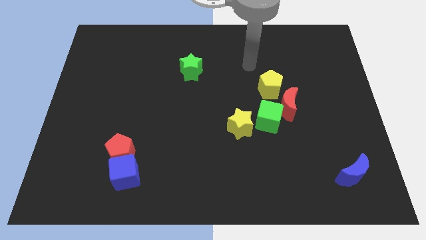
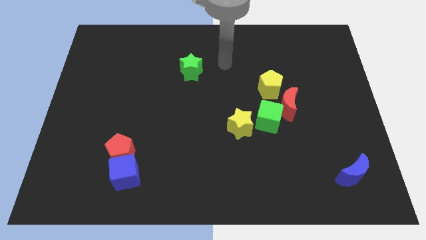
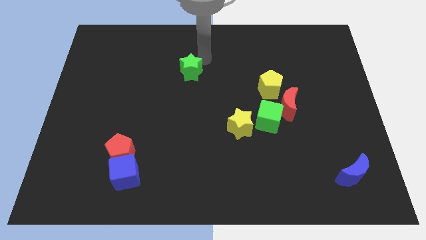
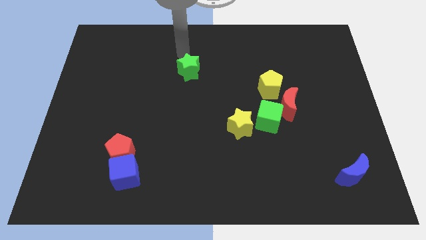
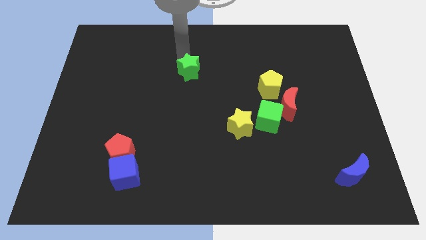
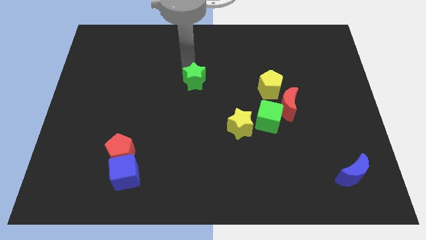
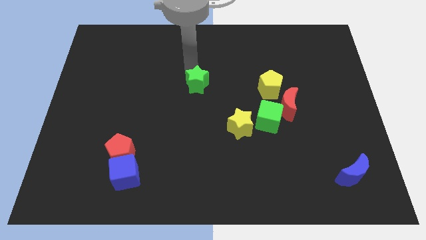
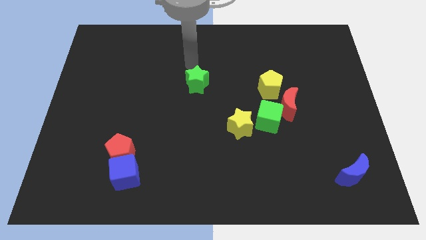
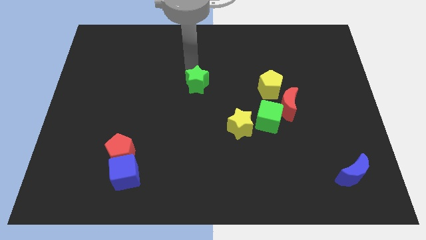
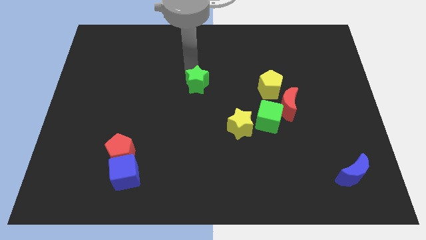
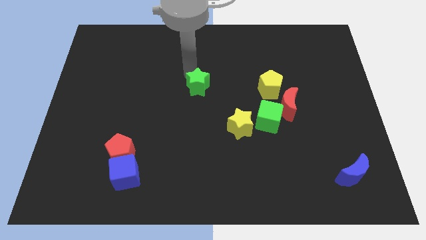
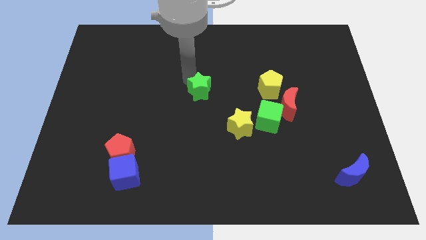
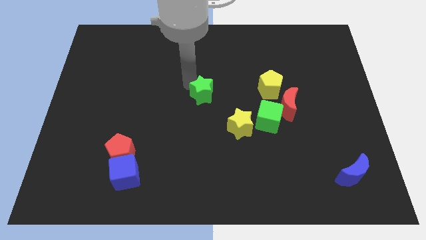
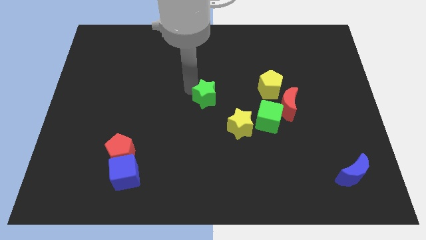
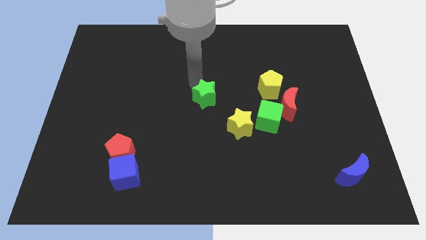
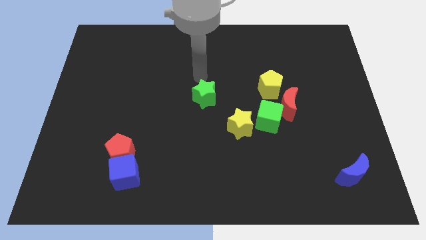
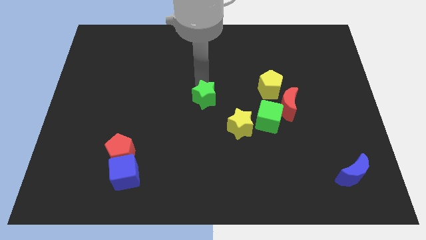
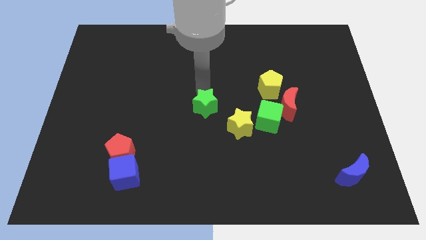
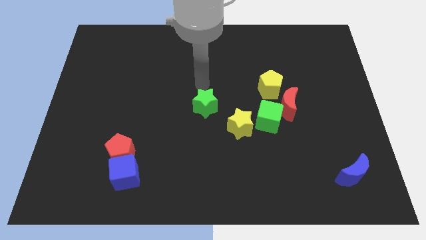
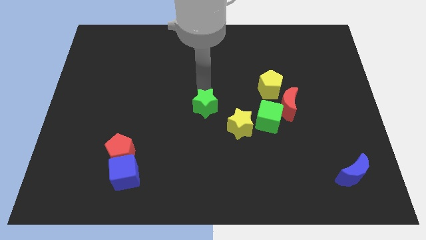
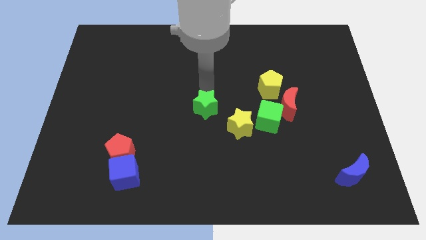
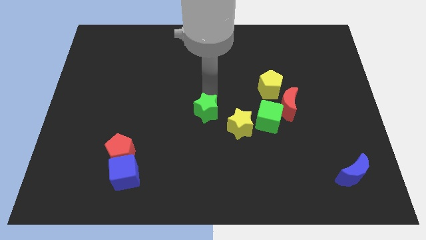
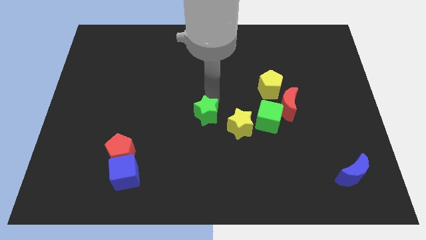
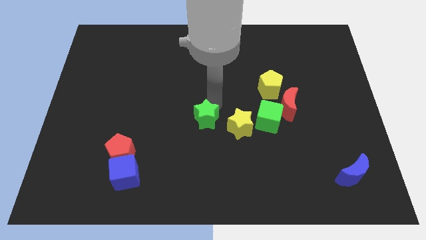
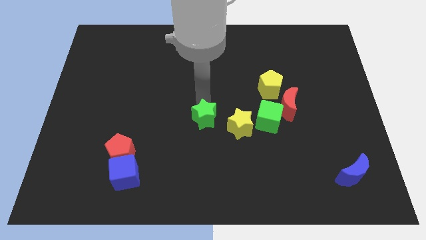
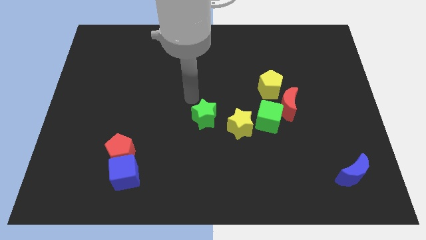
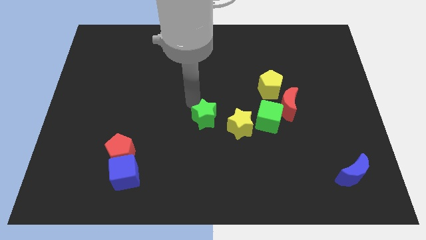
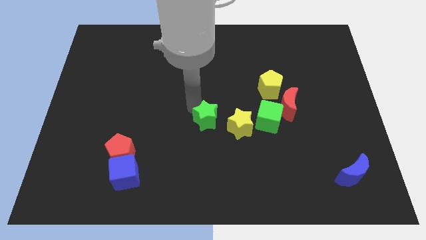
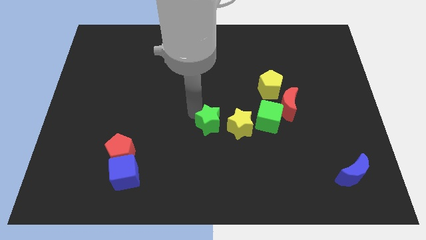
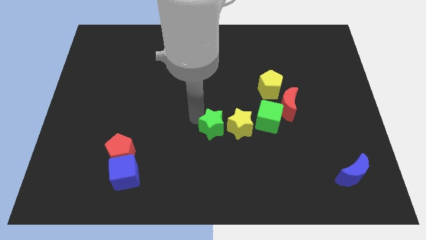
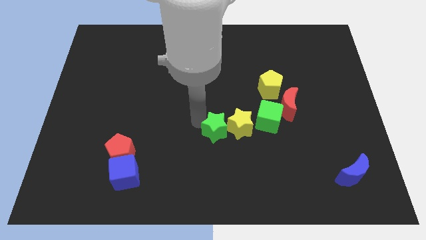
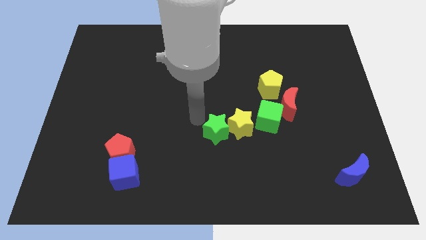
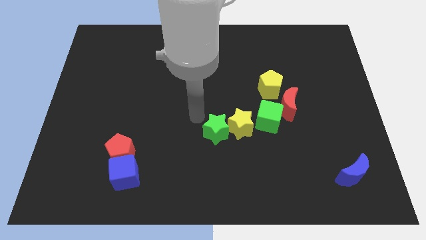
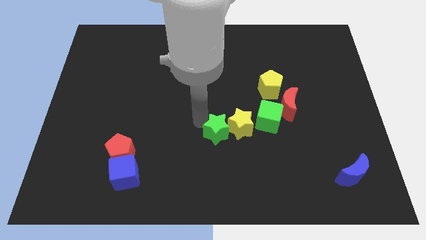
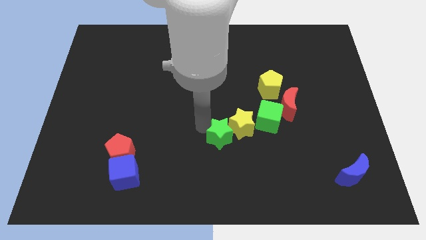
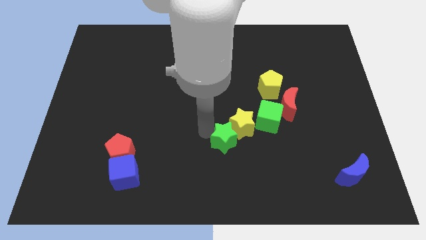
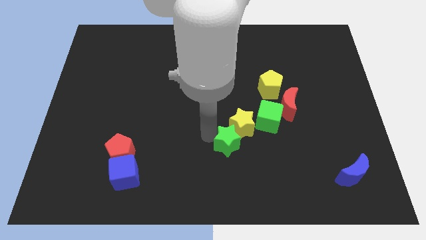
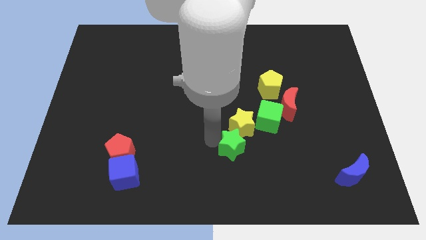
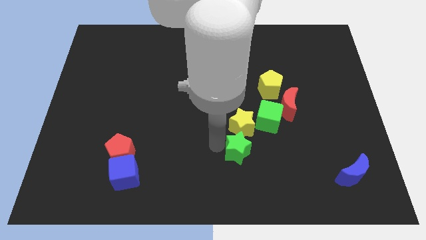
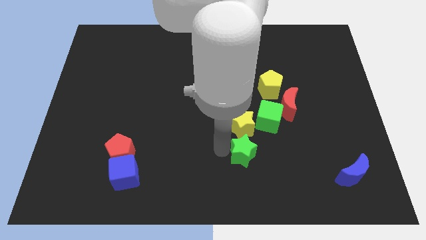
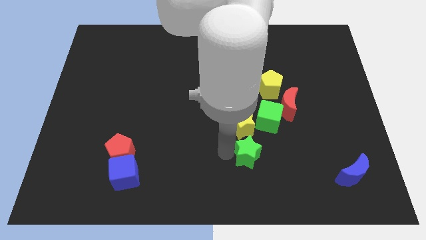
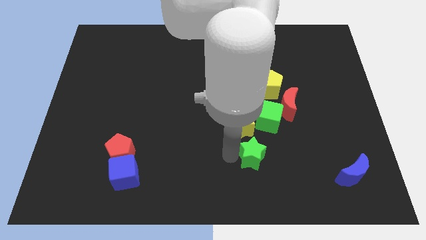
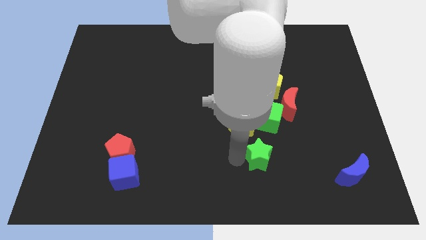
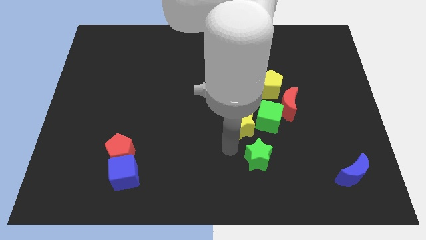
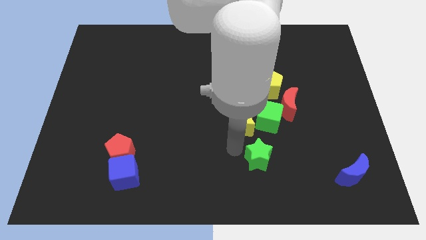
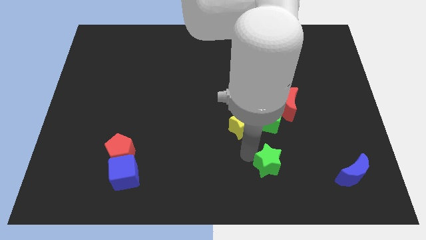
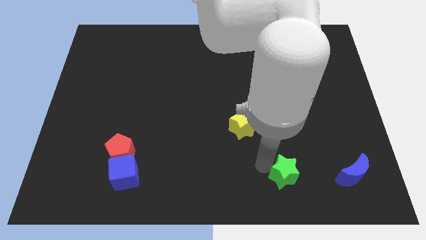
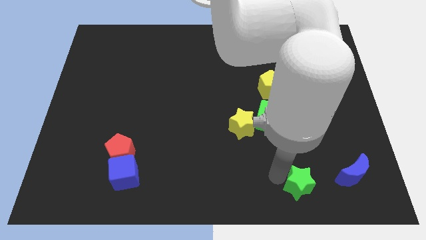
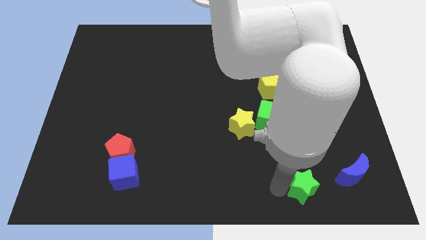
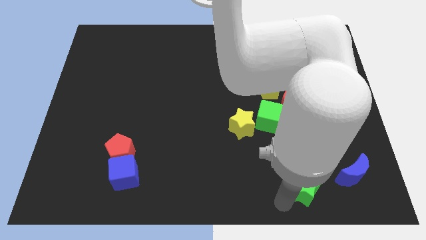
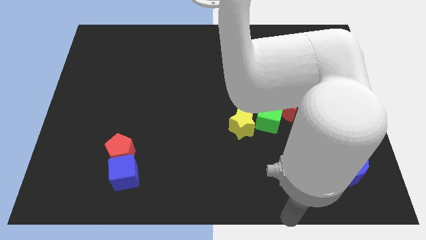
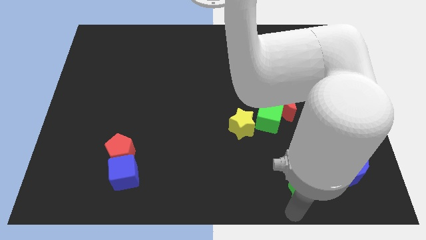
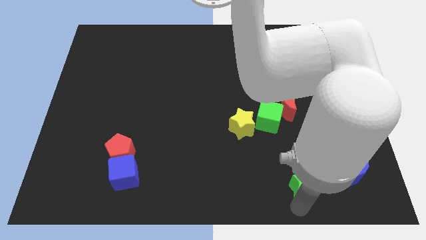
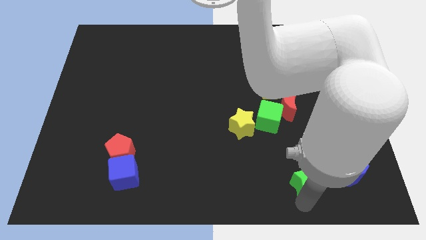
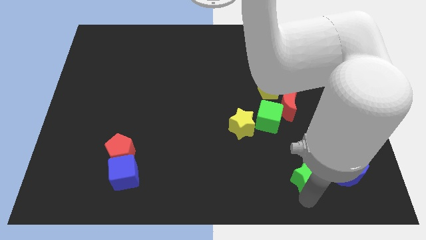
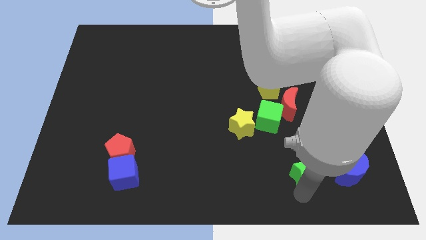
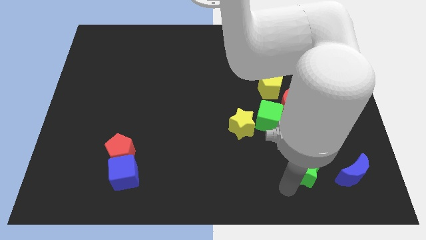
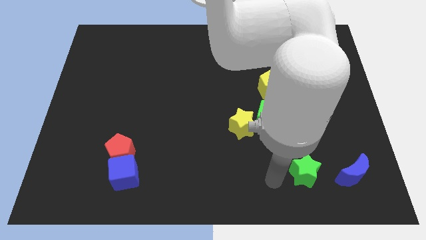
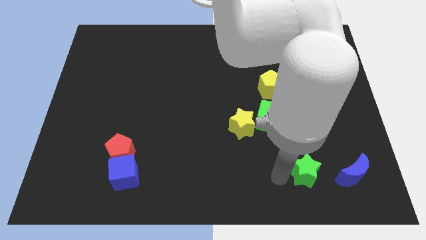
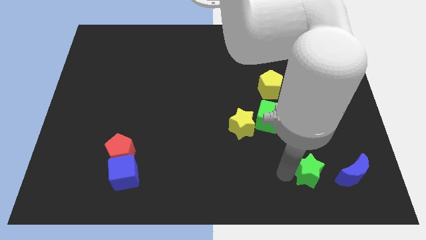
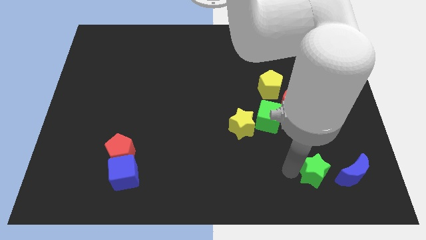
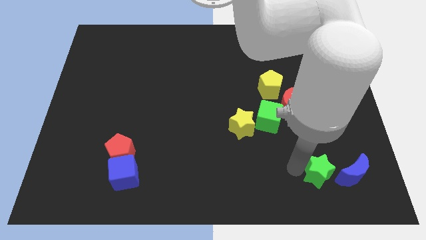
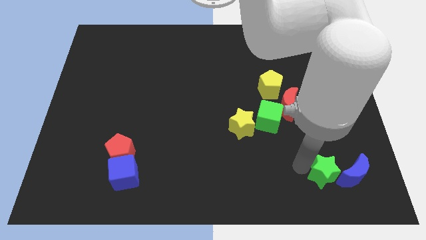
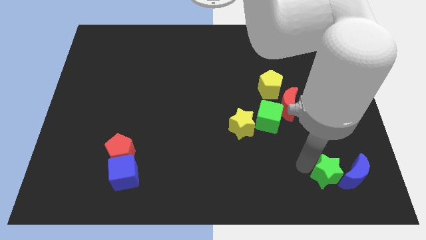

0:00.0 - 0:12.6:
put the green star towards the blue moon
